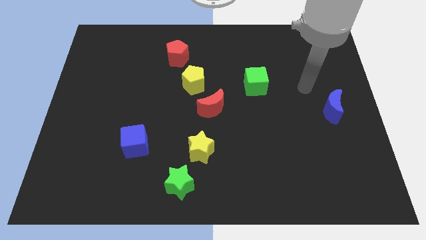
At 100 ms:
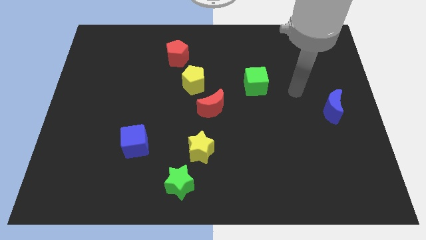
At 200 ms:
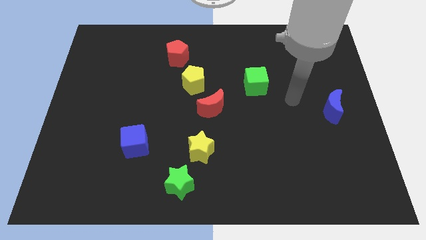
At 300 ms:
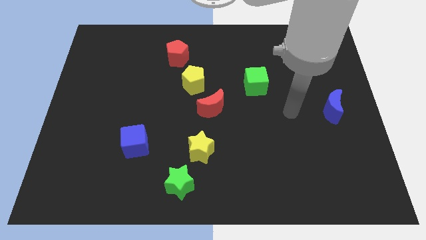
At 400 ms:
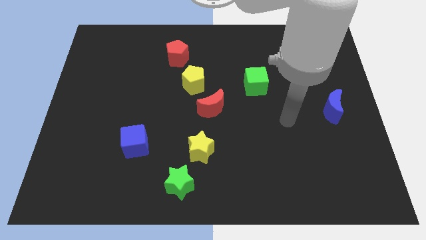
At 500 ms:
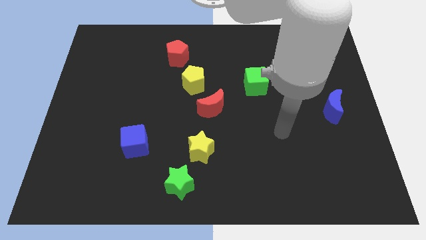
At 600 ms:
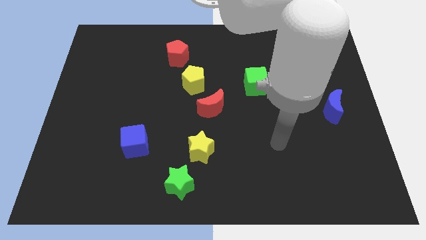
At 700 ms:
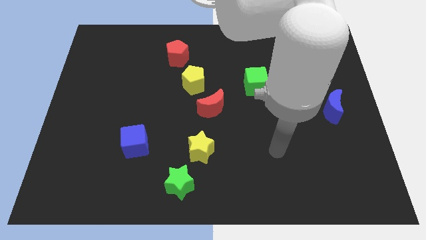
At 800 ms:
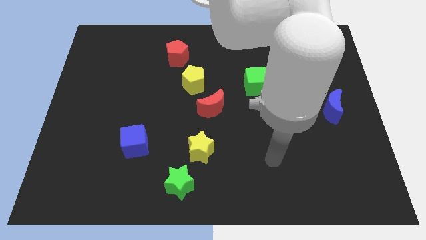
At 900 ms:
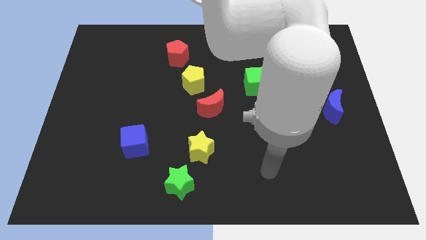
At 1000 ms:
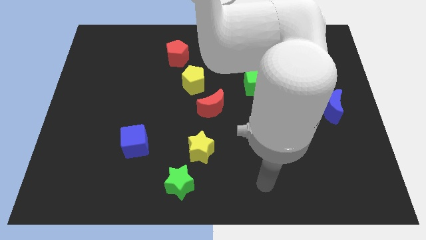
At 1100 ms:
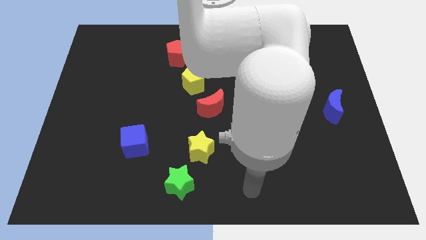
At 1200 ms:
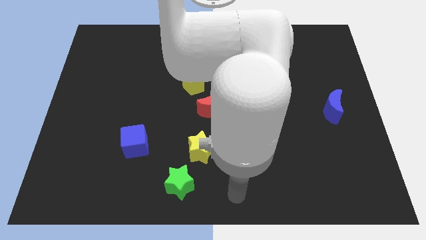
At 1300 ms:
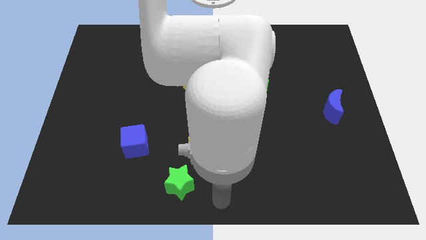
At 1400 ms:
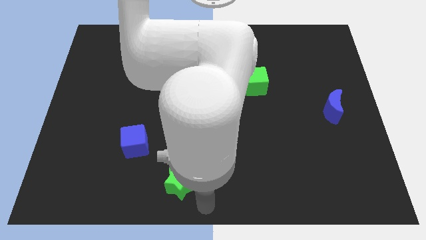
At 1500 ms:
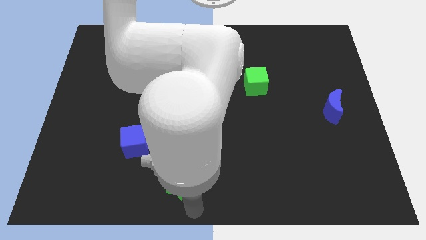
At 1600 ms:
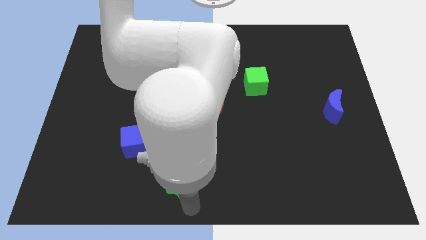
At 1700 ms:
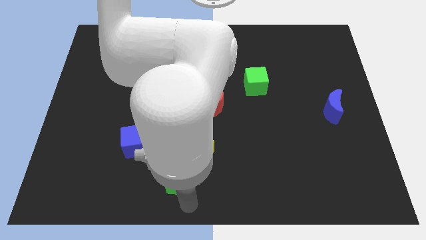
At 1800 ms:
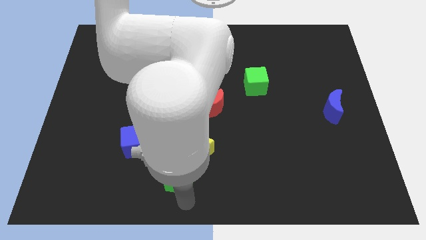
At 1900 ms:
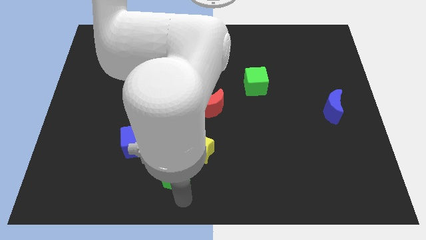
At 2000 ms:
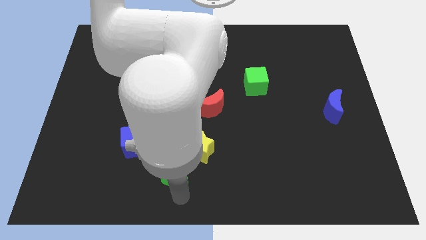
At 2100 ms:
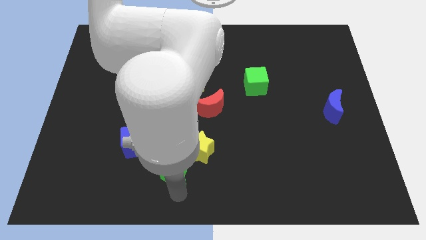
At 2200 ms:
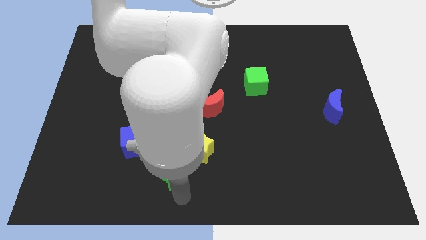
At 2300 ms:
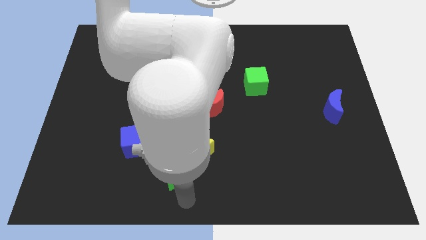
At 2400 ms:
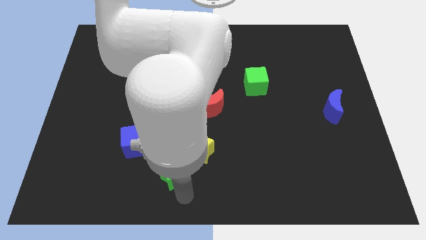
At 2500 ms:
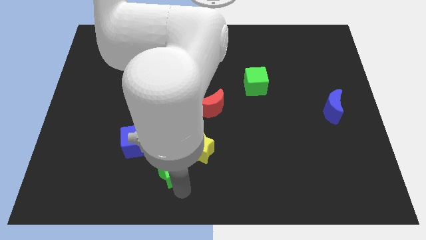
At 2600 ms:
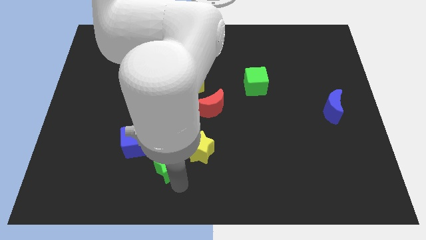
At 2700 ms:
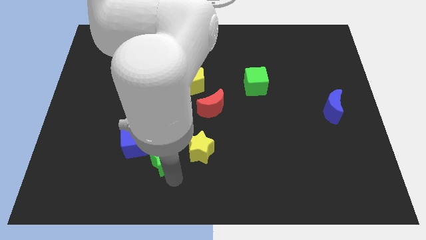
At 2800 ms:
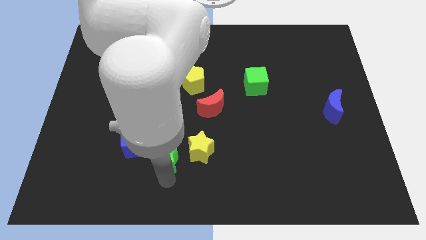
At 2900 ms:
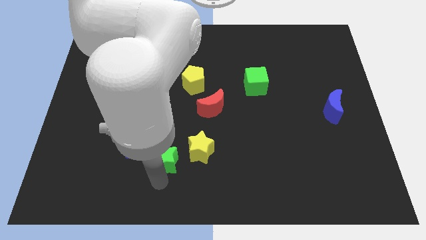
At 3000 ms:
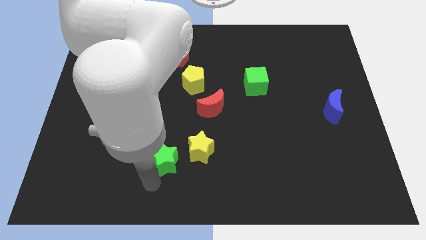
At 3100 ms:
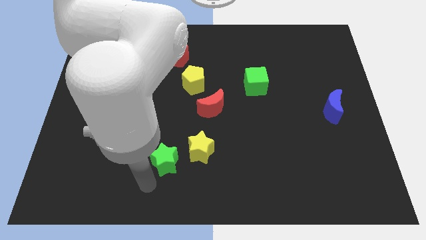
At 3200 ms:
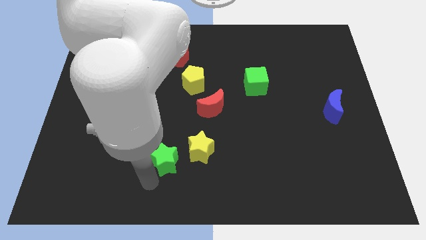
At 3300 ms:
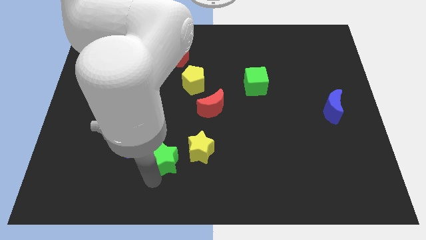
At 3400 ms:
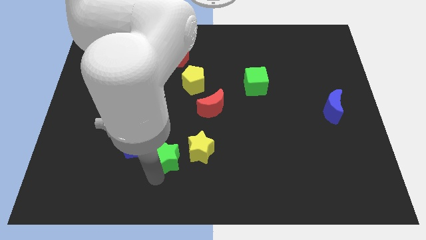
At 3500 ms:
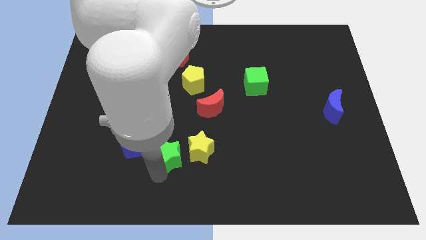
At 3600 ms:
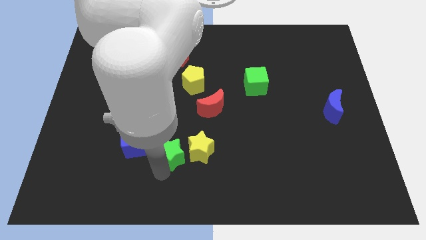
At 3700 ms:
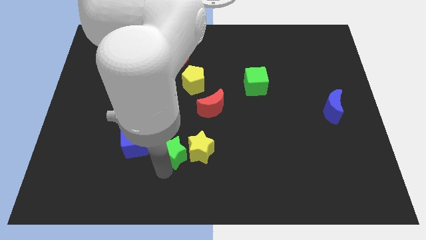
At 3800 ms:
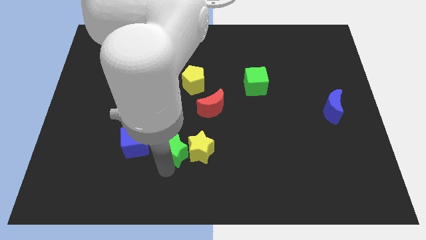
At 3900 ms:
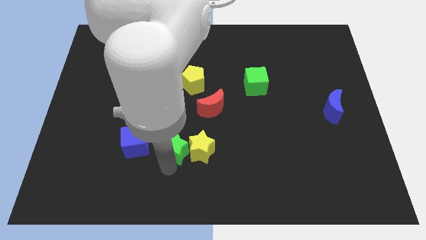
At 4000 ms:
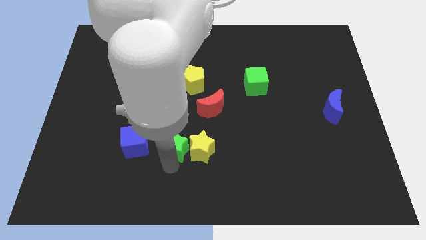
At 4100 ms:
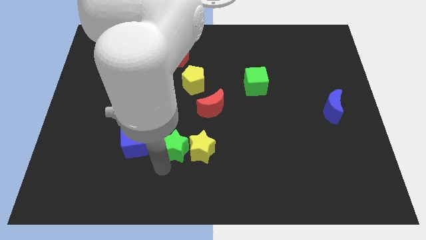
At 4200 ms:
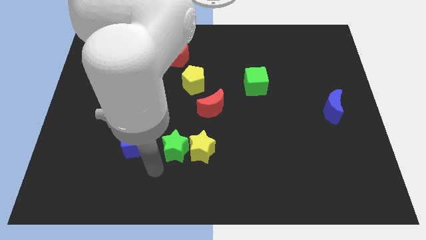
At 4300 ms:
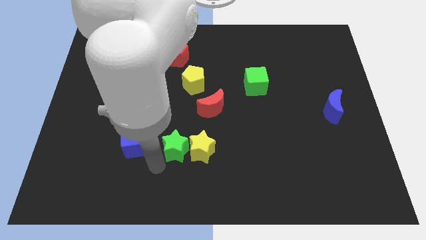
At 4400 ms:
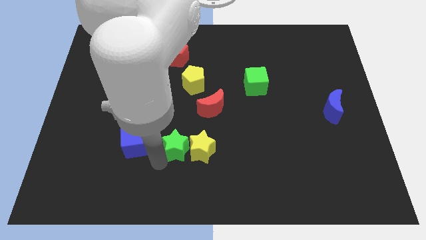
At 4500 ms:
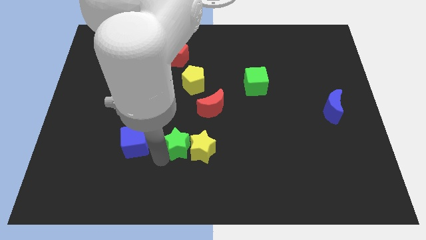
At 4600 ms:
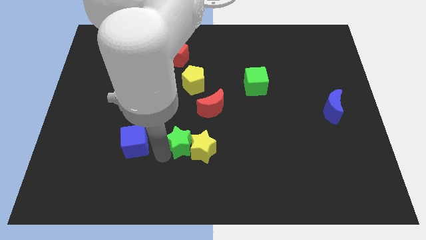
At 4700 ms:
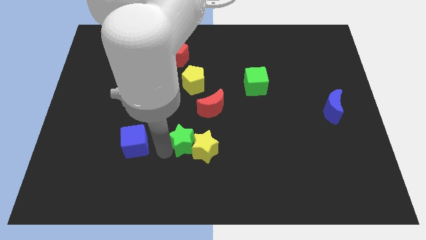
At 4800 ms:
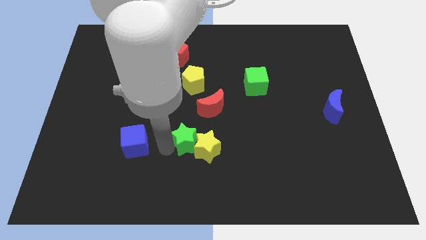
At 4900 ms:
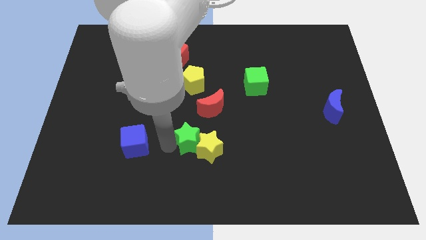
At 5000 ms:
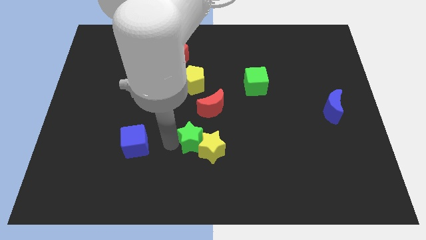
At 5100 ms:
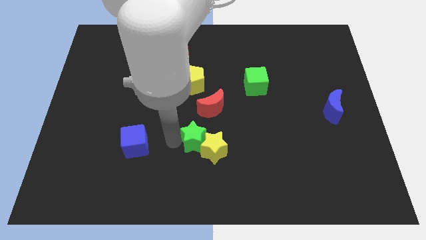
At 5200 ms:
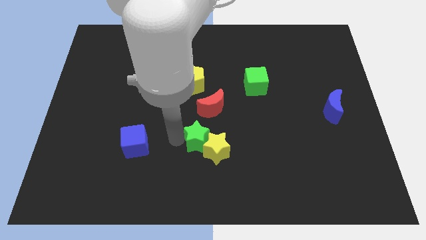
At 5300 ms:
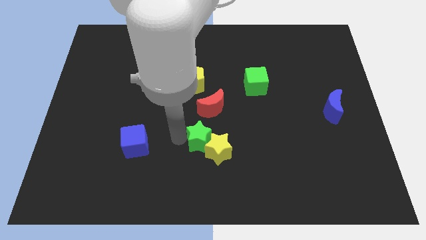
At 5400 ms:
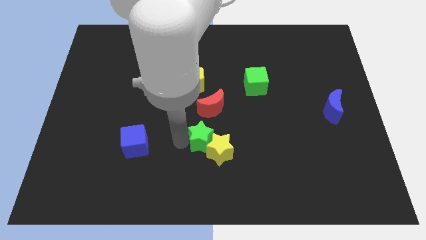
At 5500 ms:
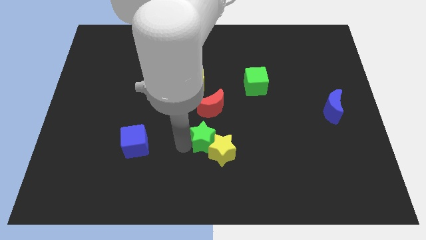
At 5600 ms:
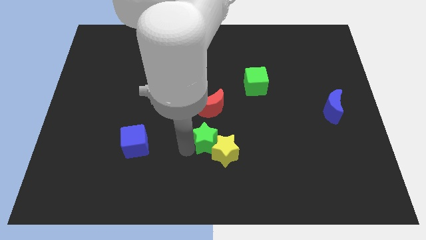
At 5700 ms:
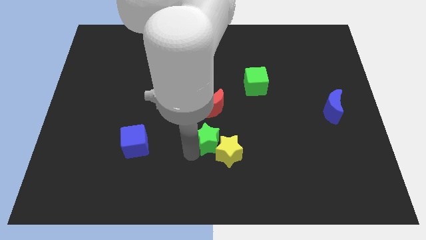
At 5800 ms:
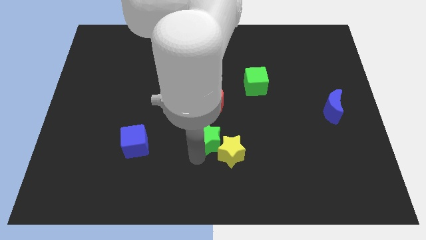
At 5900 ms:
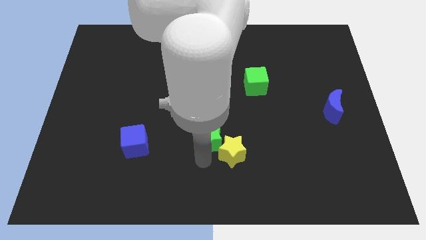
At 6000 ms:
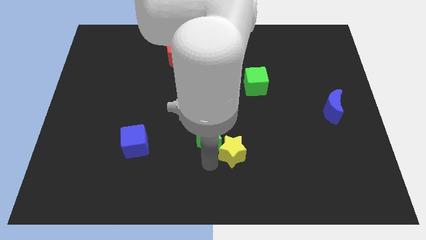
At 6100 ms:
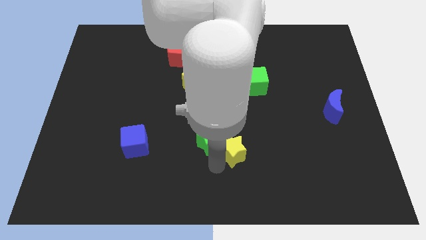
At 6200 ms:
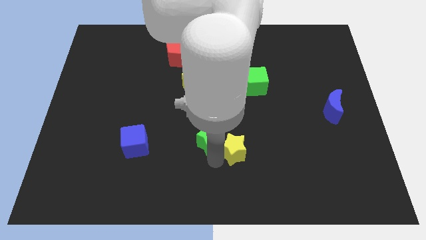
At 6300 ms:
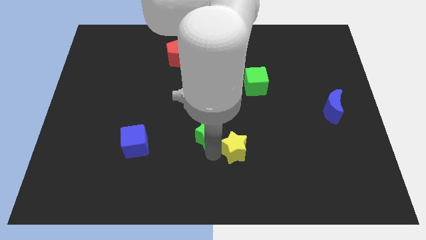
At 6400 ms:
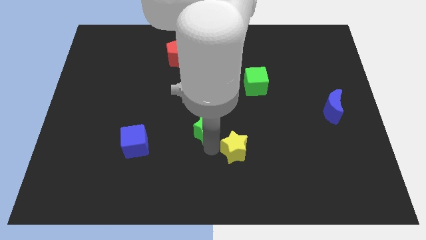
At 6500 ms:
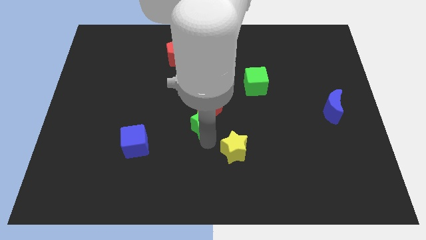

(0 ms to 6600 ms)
slide the green star towards the red moon

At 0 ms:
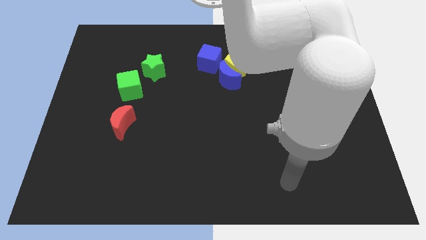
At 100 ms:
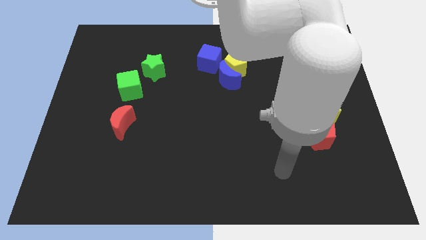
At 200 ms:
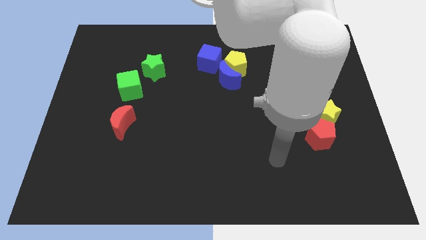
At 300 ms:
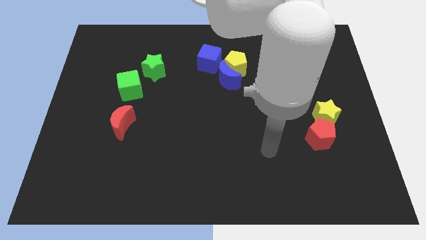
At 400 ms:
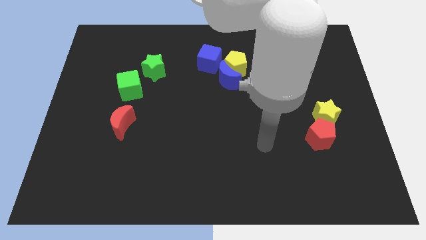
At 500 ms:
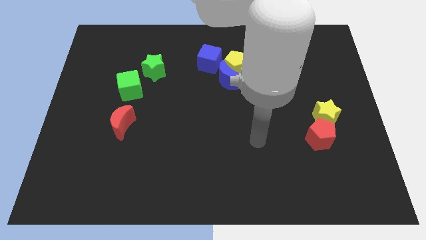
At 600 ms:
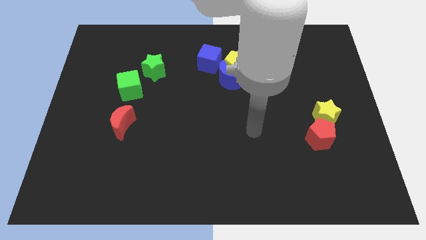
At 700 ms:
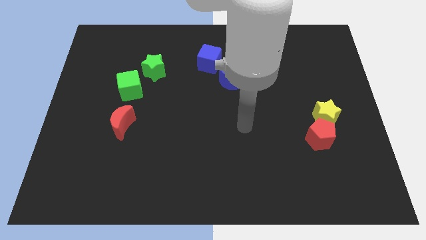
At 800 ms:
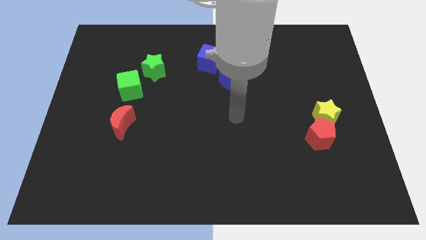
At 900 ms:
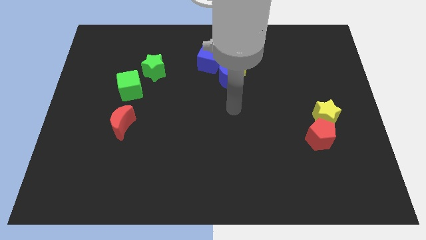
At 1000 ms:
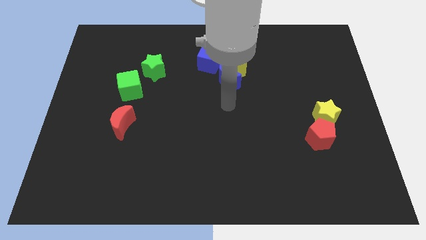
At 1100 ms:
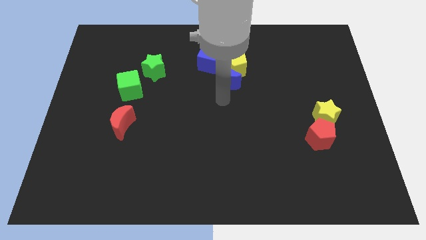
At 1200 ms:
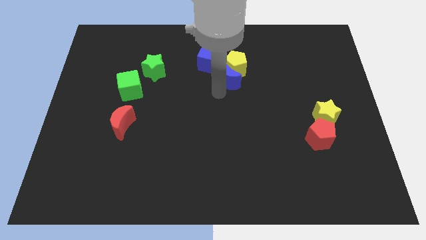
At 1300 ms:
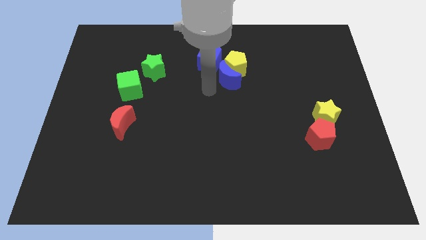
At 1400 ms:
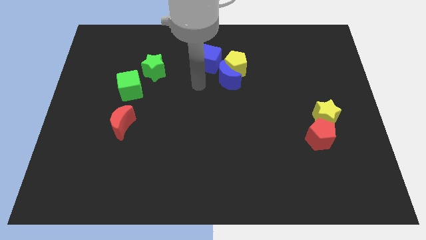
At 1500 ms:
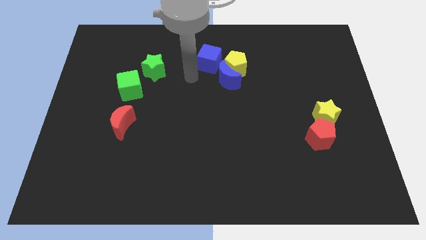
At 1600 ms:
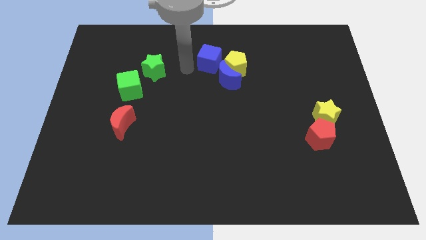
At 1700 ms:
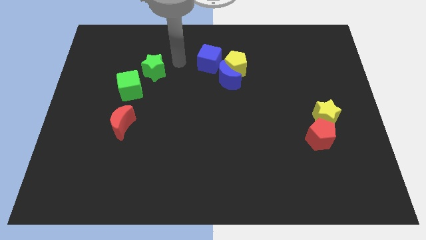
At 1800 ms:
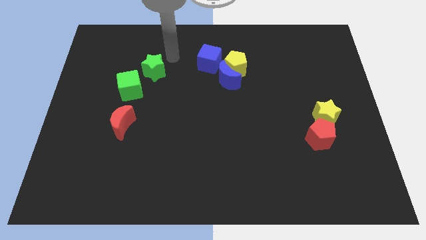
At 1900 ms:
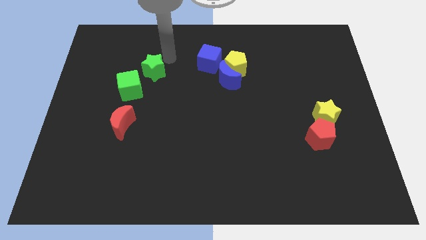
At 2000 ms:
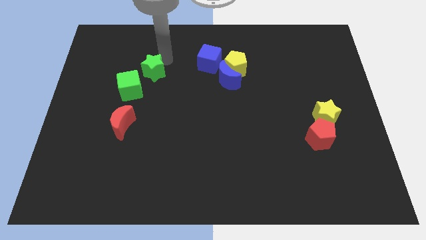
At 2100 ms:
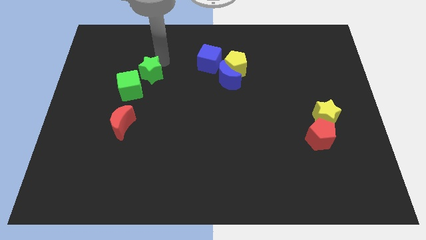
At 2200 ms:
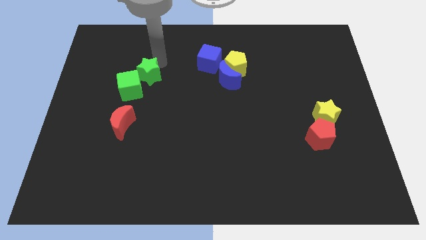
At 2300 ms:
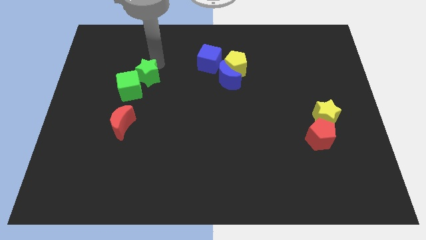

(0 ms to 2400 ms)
move the green star close to the green cube
